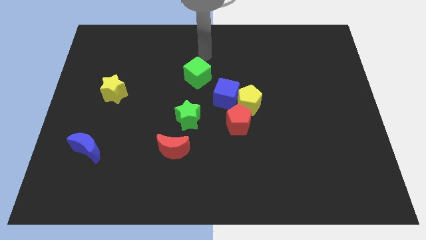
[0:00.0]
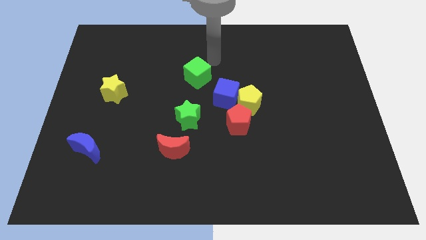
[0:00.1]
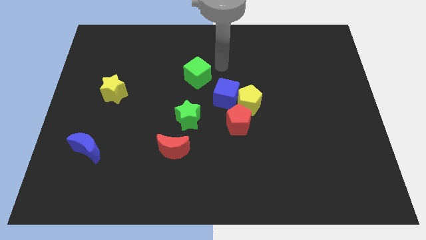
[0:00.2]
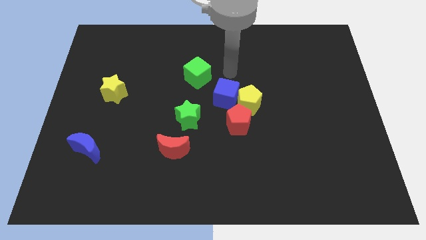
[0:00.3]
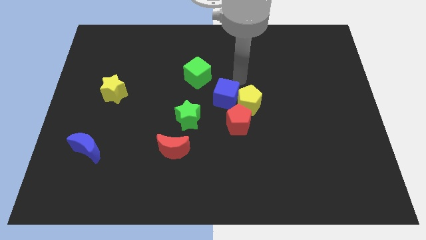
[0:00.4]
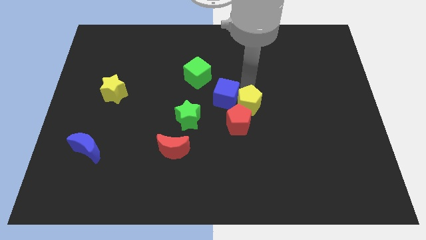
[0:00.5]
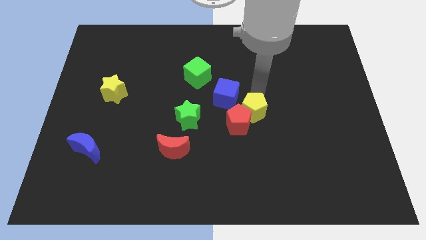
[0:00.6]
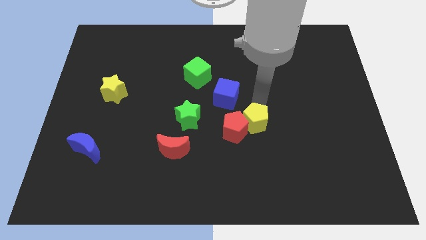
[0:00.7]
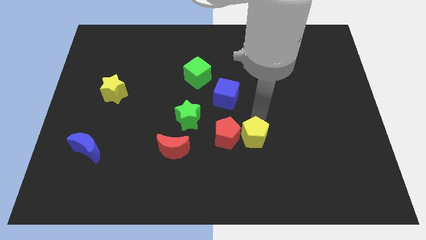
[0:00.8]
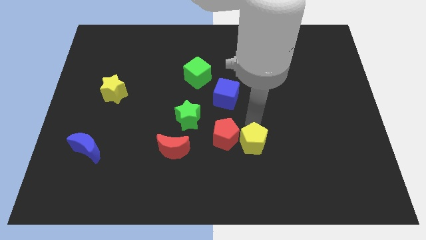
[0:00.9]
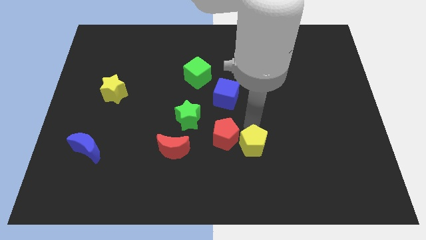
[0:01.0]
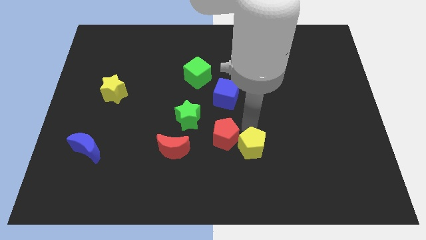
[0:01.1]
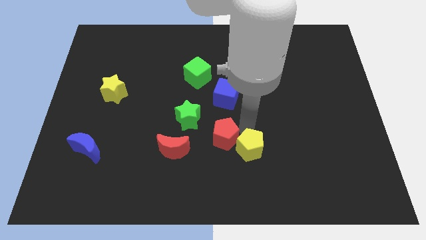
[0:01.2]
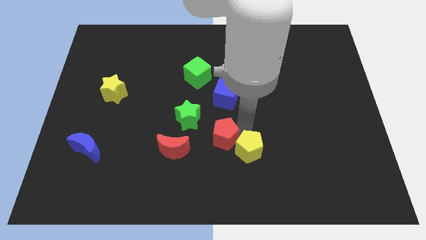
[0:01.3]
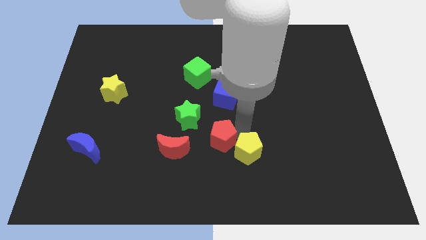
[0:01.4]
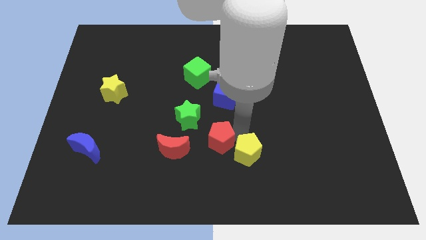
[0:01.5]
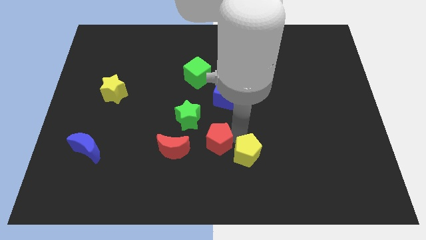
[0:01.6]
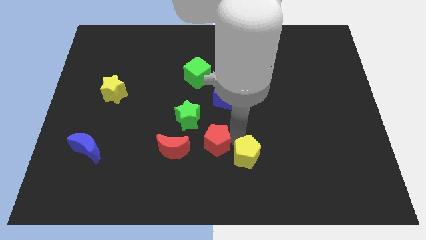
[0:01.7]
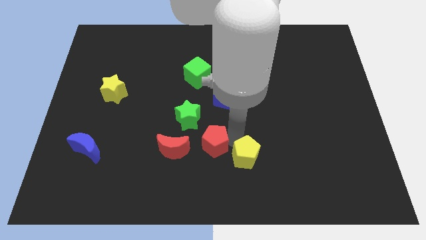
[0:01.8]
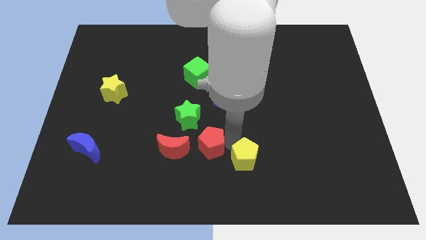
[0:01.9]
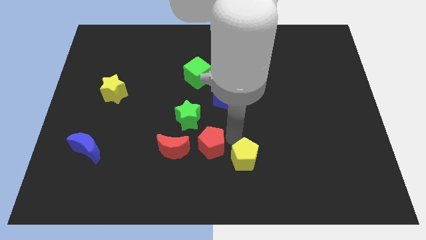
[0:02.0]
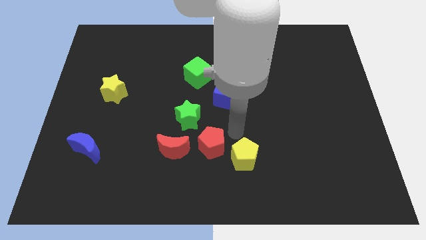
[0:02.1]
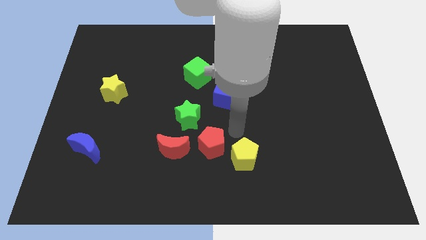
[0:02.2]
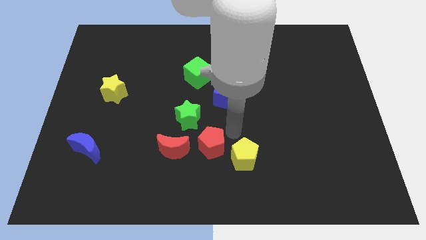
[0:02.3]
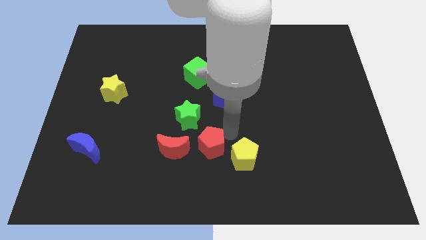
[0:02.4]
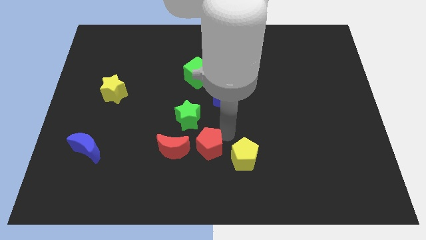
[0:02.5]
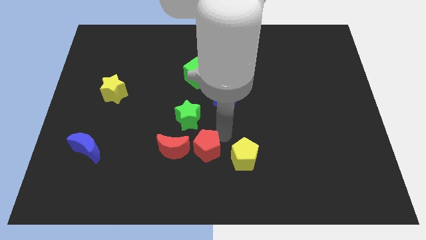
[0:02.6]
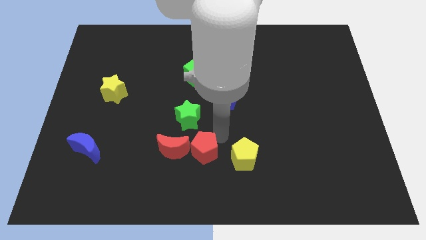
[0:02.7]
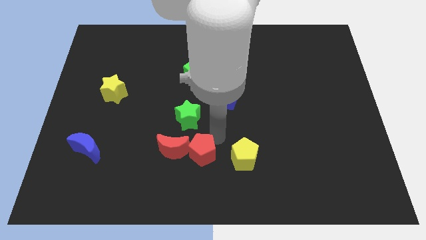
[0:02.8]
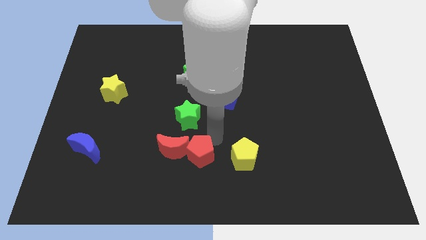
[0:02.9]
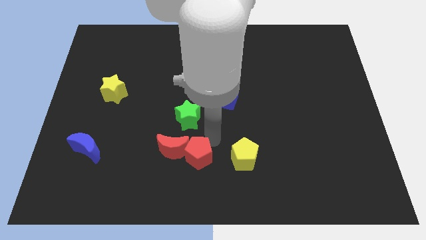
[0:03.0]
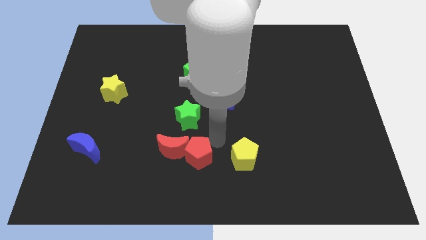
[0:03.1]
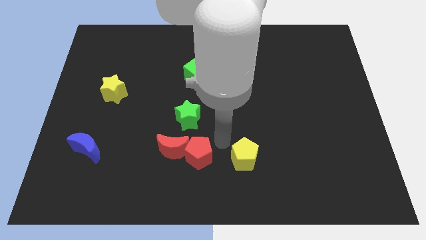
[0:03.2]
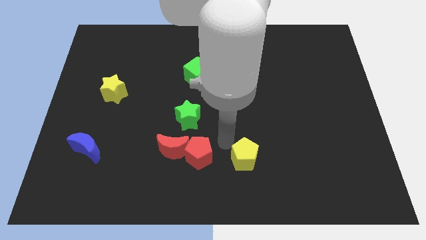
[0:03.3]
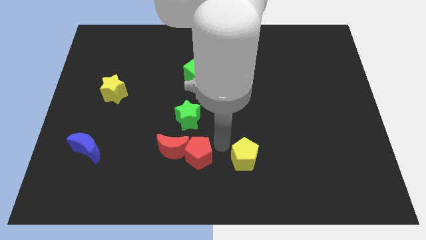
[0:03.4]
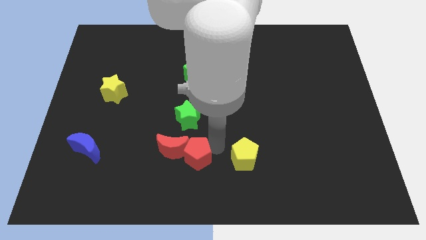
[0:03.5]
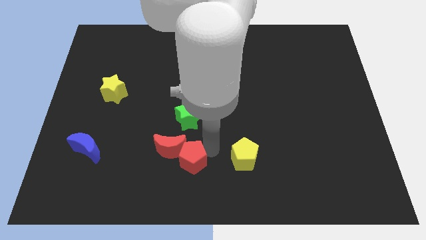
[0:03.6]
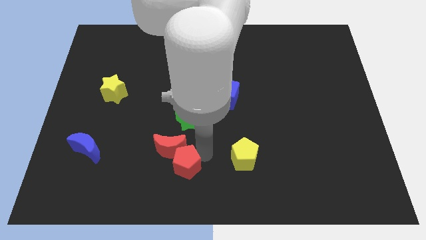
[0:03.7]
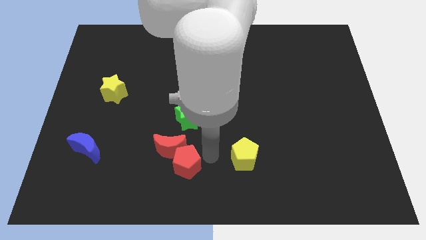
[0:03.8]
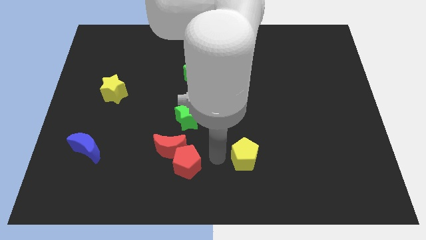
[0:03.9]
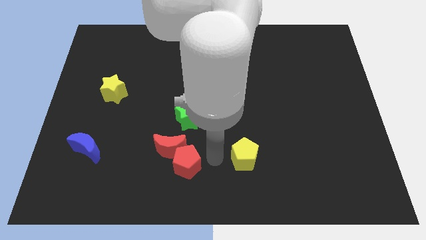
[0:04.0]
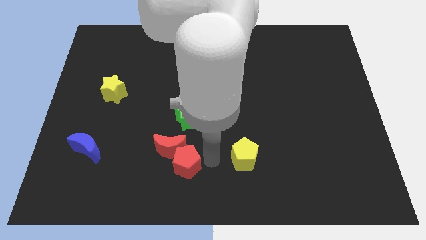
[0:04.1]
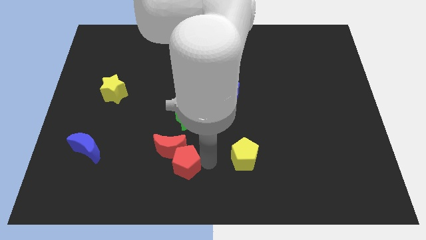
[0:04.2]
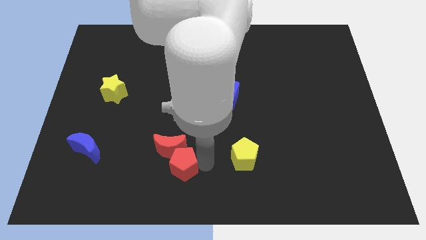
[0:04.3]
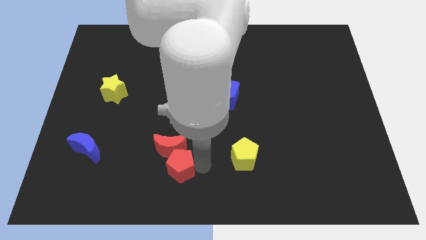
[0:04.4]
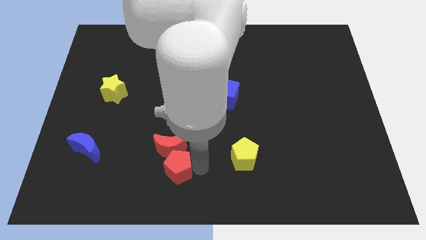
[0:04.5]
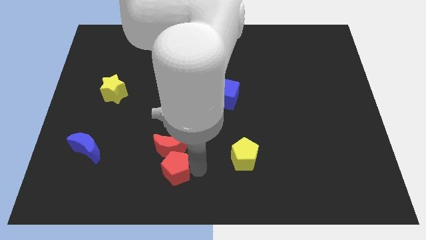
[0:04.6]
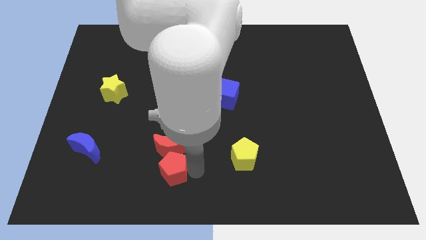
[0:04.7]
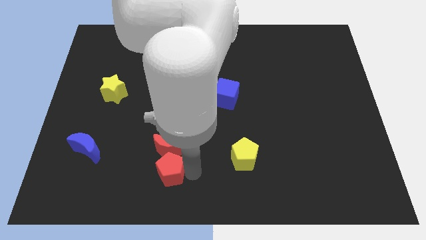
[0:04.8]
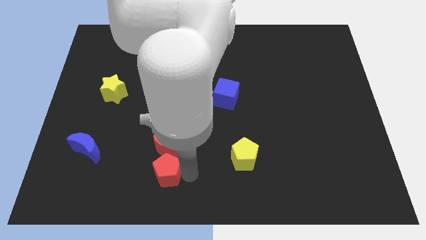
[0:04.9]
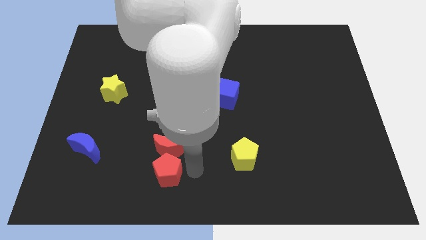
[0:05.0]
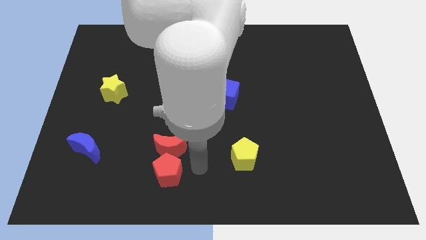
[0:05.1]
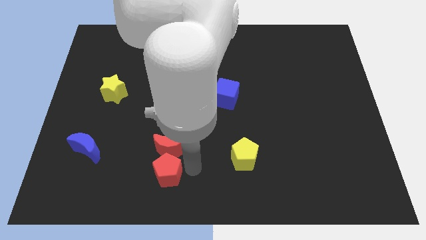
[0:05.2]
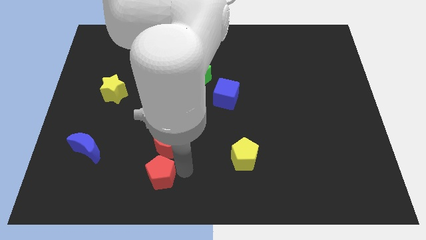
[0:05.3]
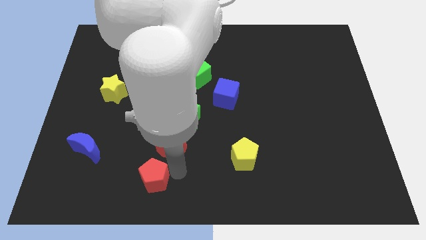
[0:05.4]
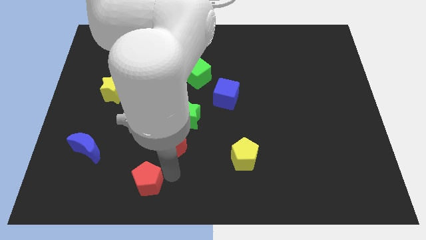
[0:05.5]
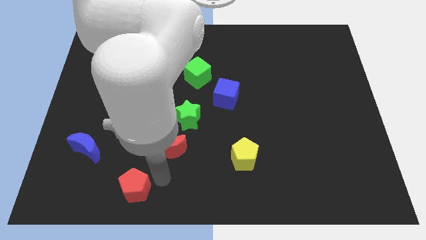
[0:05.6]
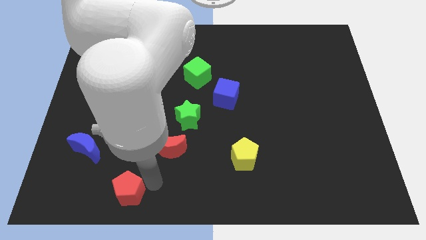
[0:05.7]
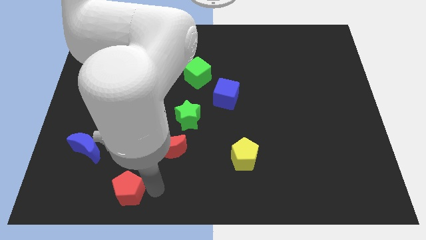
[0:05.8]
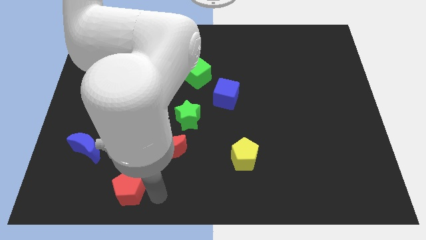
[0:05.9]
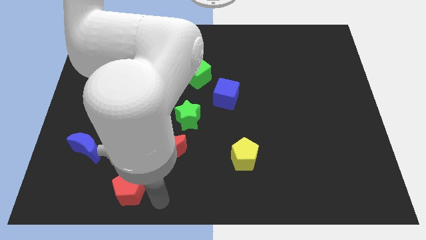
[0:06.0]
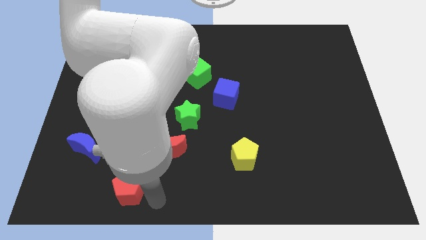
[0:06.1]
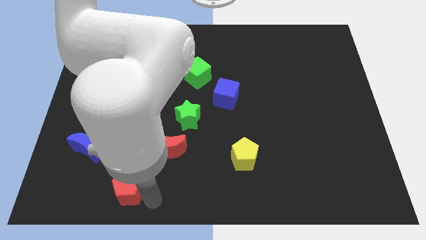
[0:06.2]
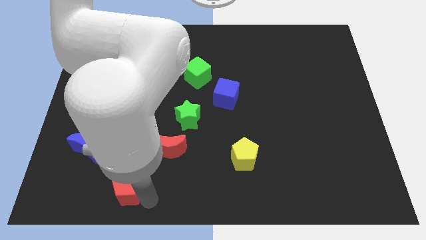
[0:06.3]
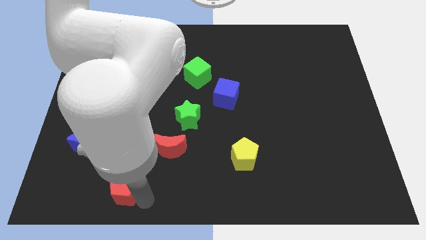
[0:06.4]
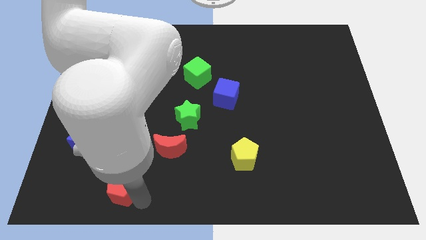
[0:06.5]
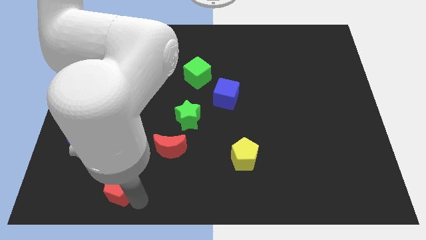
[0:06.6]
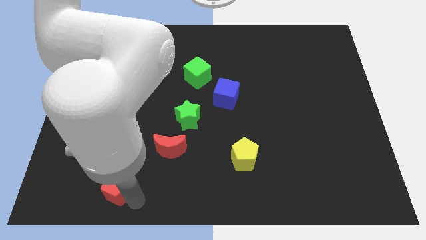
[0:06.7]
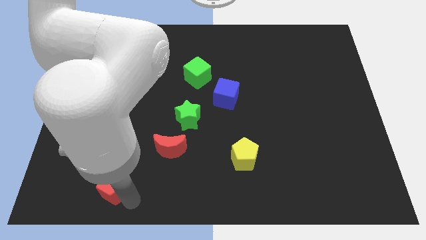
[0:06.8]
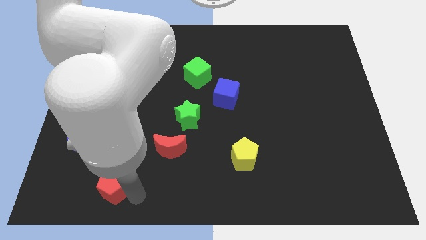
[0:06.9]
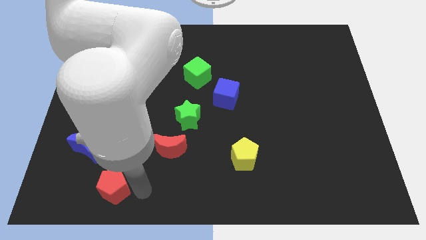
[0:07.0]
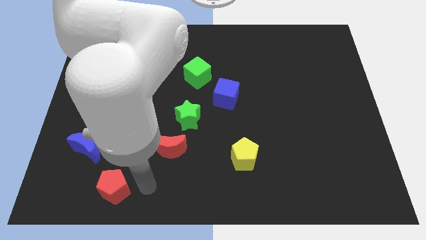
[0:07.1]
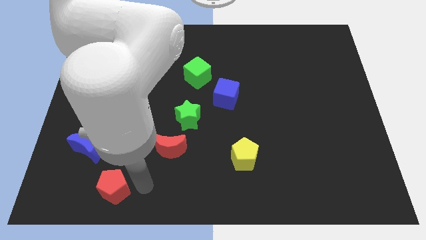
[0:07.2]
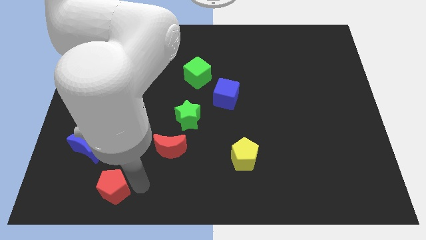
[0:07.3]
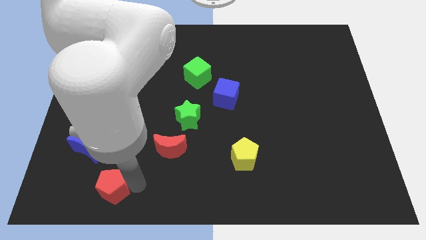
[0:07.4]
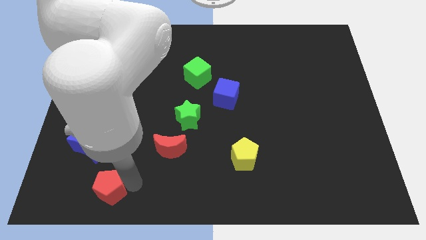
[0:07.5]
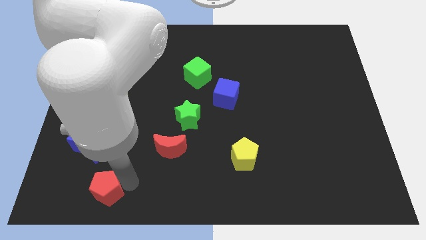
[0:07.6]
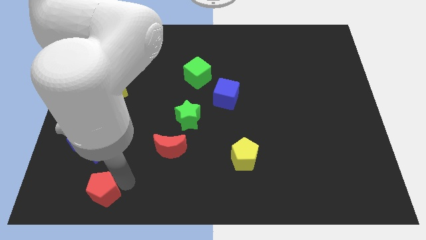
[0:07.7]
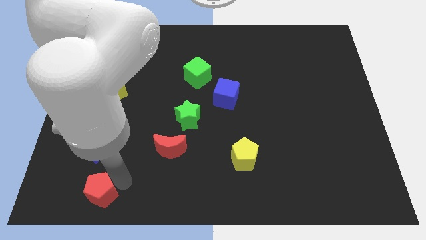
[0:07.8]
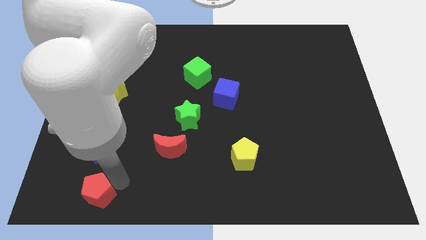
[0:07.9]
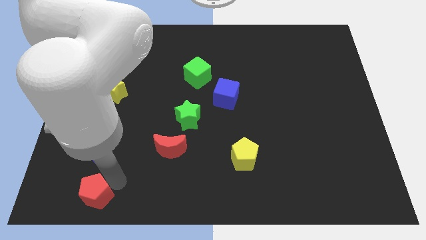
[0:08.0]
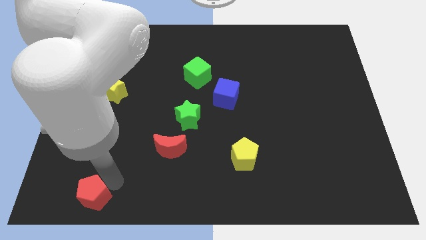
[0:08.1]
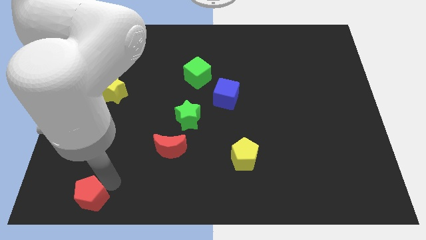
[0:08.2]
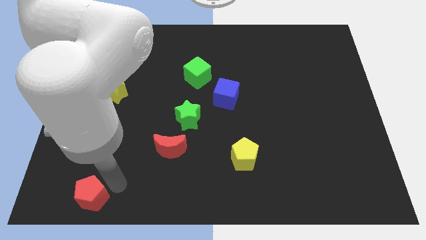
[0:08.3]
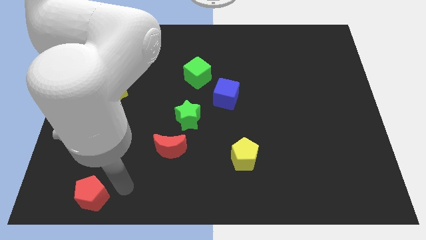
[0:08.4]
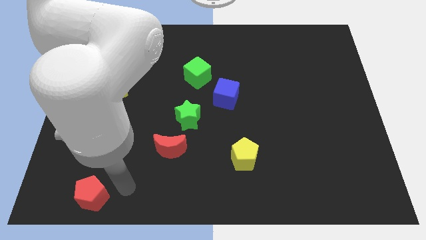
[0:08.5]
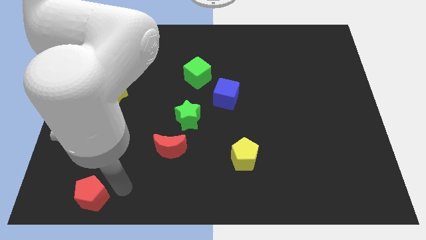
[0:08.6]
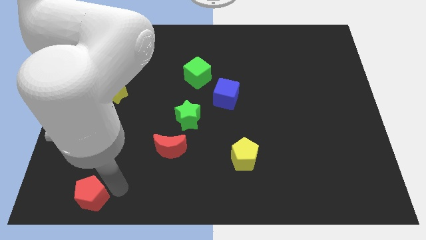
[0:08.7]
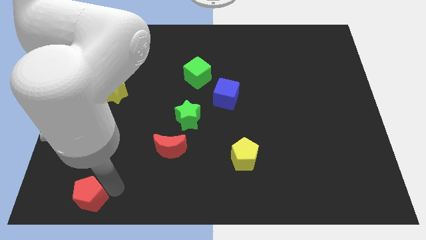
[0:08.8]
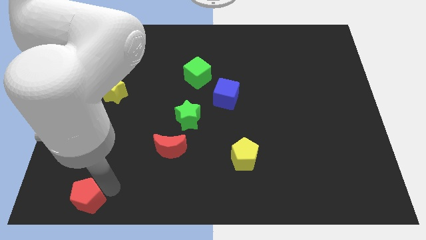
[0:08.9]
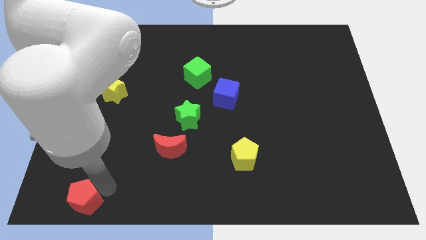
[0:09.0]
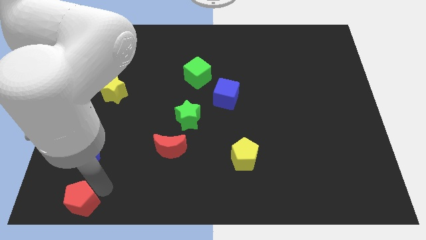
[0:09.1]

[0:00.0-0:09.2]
move the red pentagon to the lower left corner
